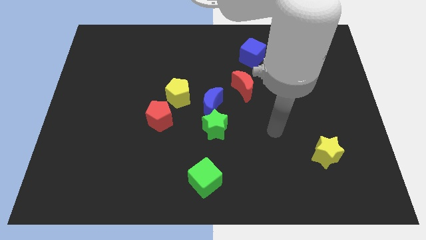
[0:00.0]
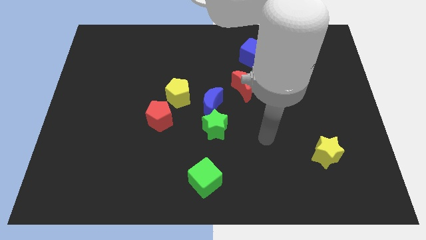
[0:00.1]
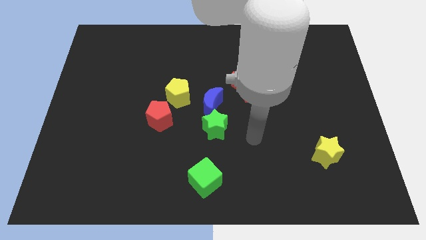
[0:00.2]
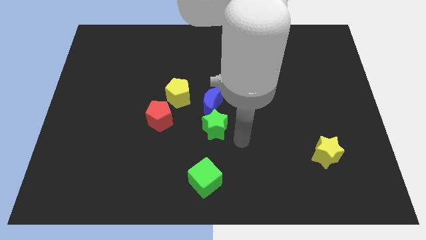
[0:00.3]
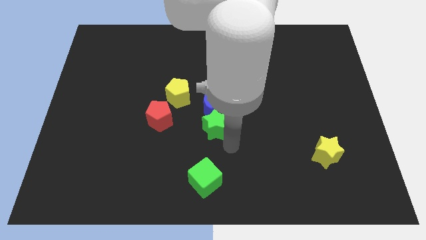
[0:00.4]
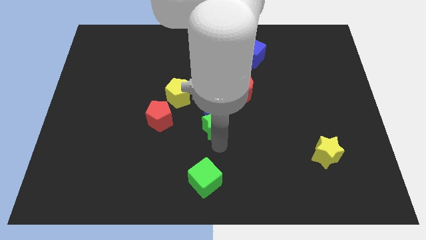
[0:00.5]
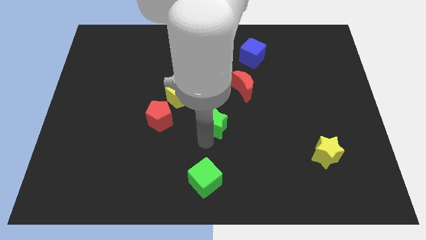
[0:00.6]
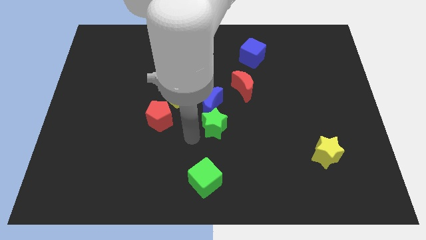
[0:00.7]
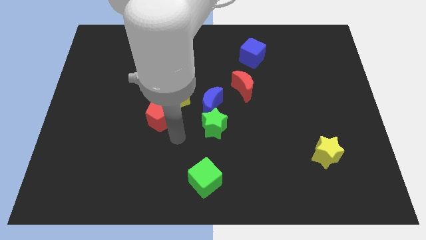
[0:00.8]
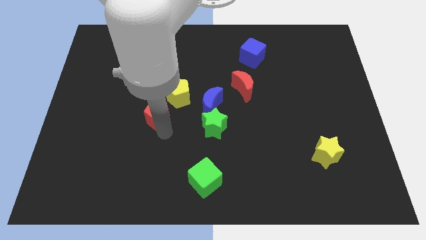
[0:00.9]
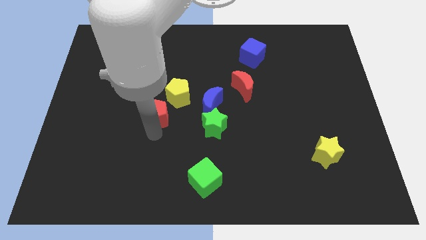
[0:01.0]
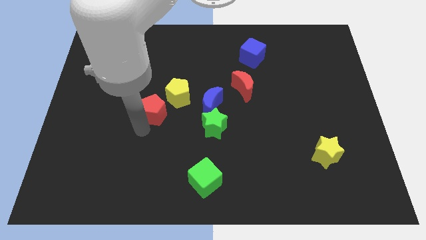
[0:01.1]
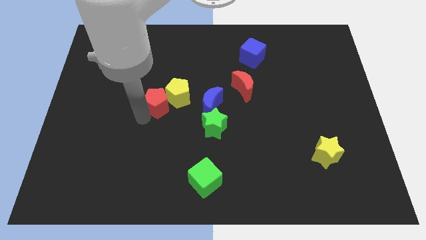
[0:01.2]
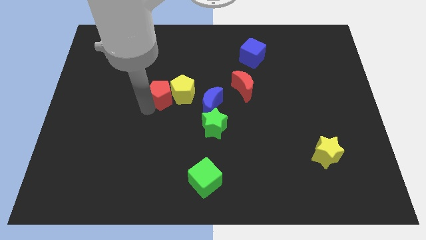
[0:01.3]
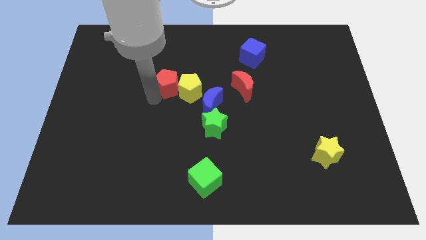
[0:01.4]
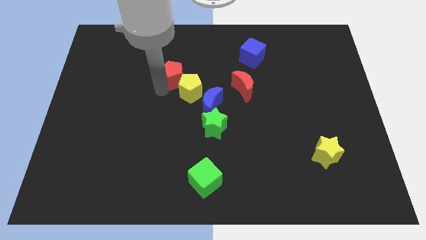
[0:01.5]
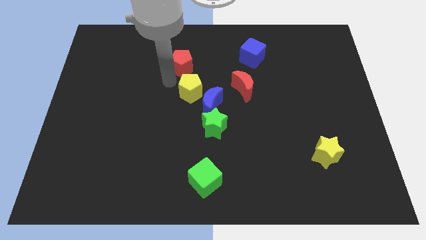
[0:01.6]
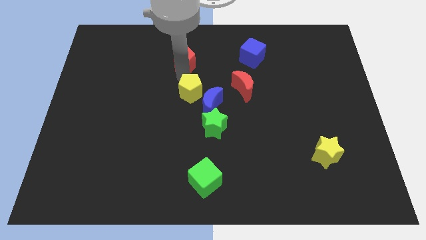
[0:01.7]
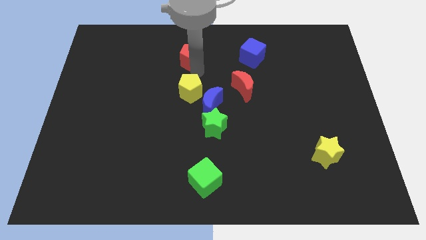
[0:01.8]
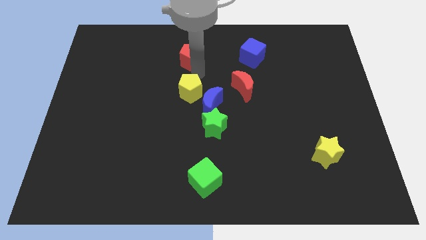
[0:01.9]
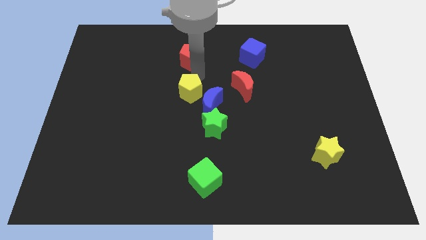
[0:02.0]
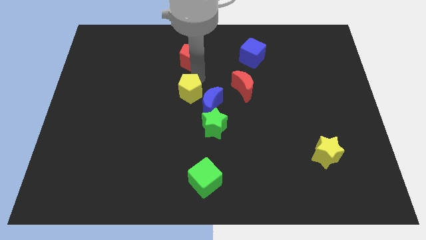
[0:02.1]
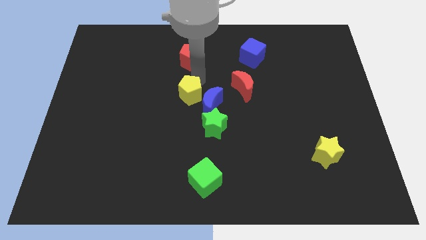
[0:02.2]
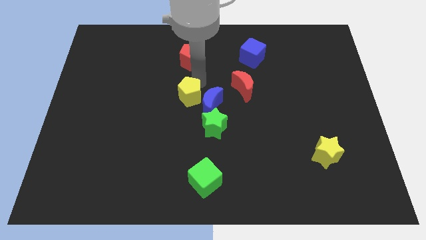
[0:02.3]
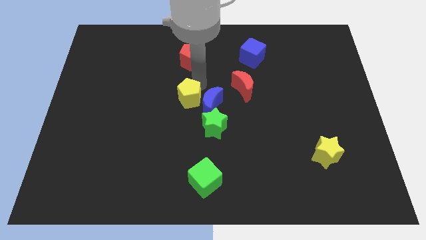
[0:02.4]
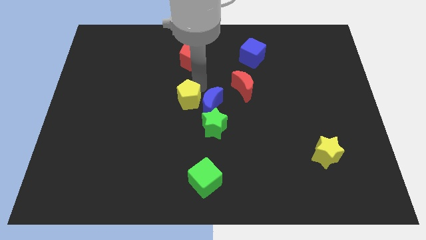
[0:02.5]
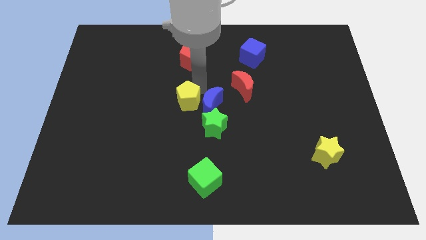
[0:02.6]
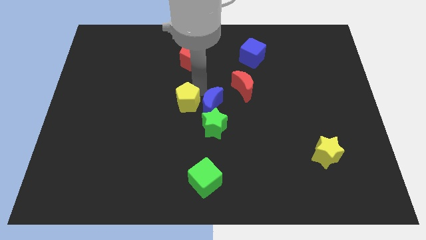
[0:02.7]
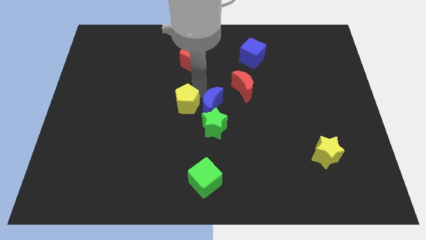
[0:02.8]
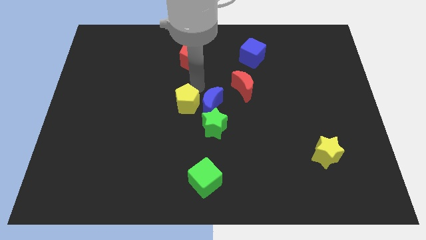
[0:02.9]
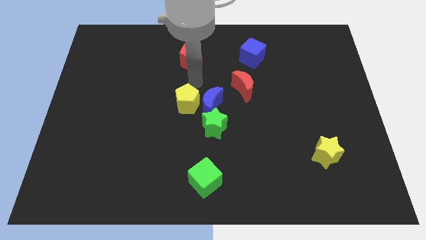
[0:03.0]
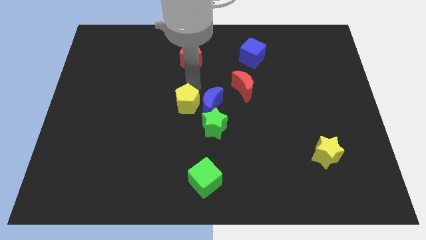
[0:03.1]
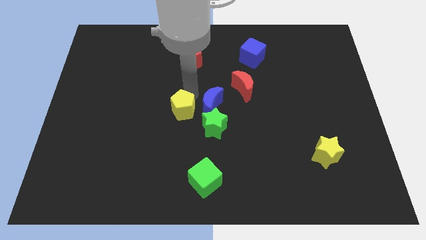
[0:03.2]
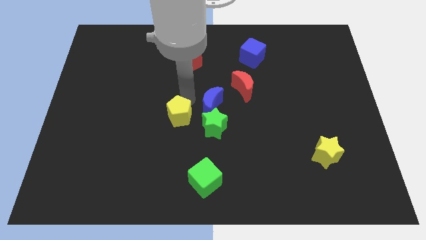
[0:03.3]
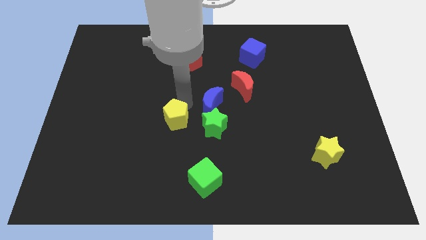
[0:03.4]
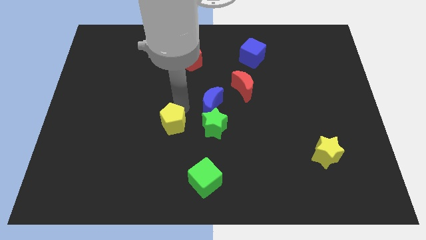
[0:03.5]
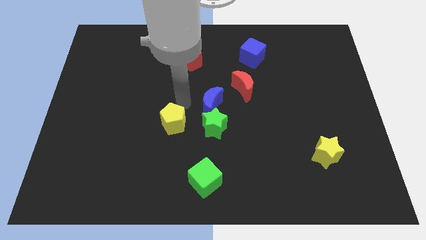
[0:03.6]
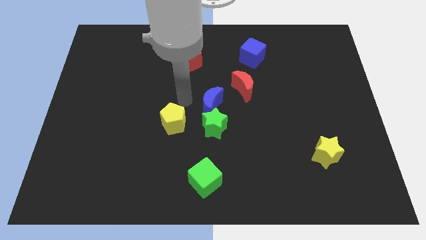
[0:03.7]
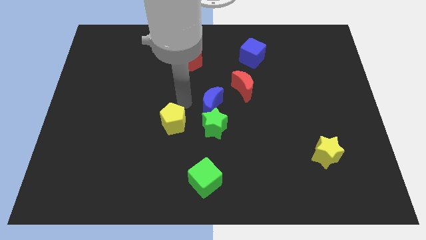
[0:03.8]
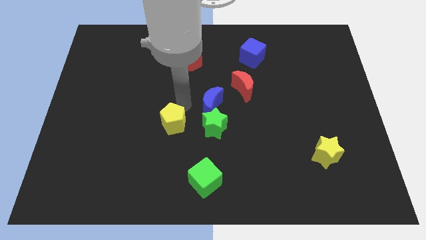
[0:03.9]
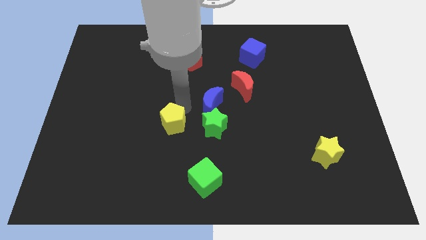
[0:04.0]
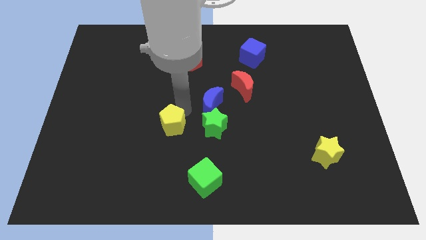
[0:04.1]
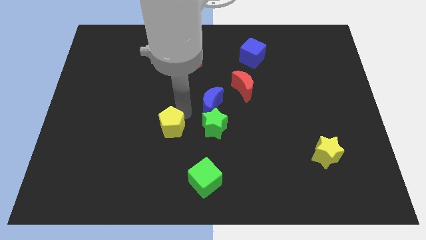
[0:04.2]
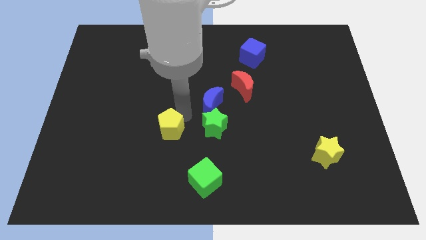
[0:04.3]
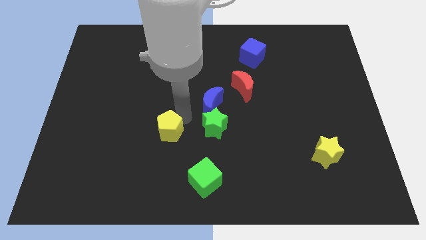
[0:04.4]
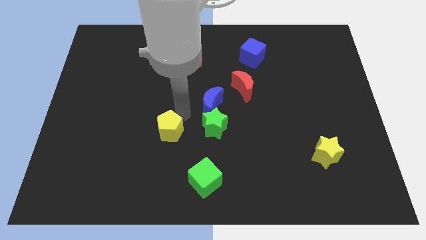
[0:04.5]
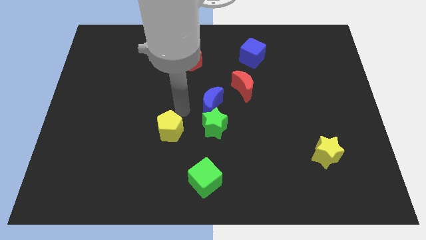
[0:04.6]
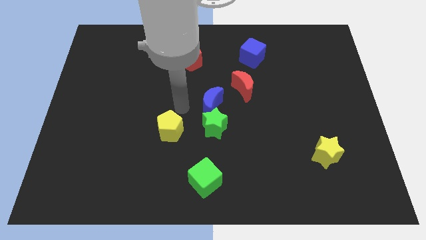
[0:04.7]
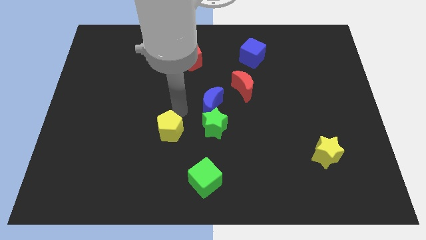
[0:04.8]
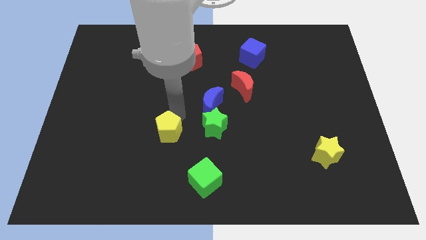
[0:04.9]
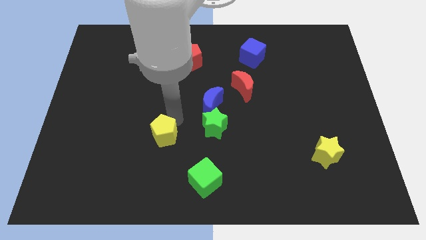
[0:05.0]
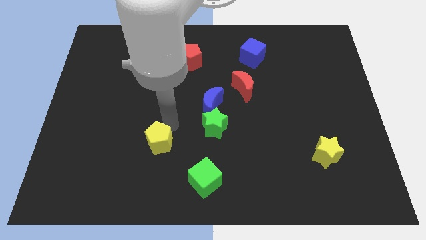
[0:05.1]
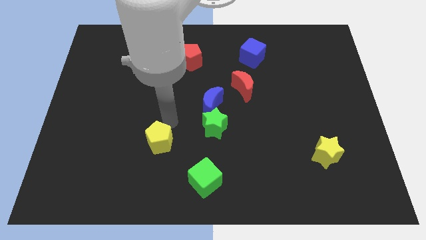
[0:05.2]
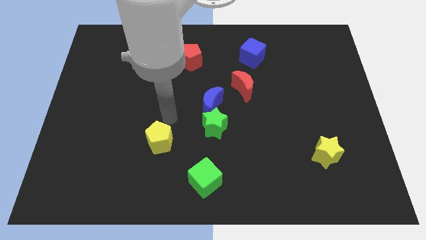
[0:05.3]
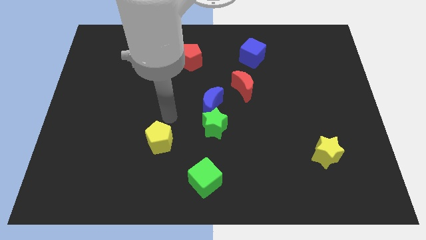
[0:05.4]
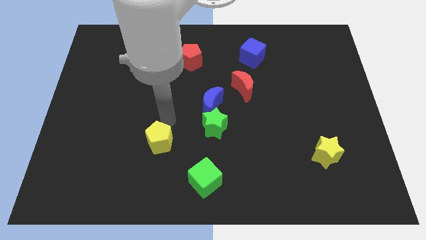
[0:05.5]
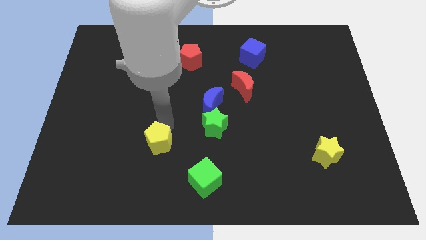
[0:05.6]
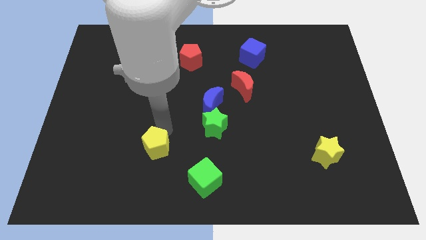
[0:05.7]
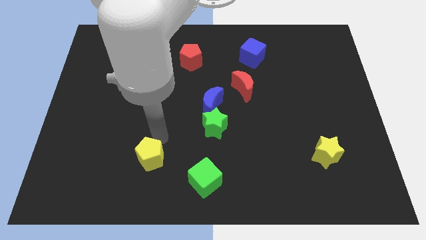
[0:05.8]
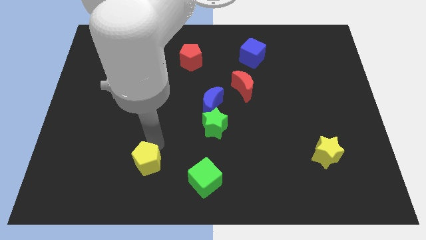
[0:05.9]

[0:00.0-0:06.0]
slide the yellow pentagon left of the green cube

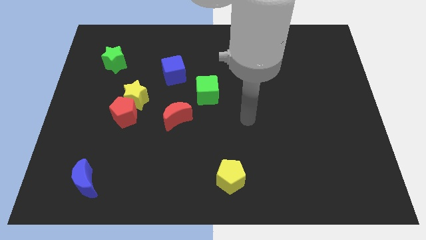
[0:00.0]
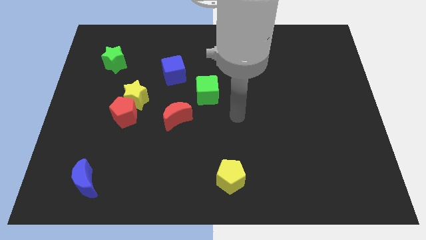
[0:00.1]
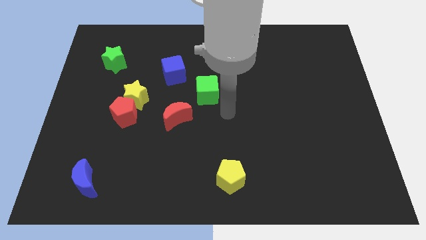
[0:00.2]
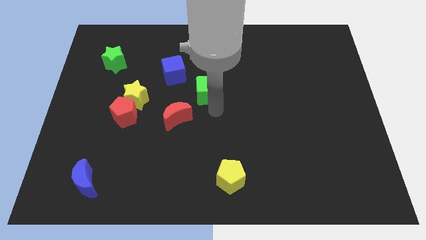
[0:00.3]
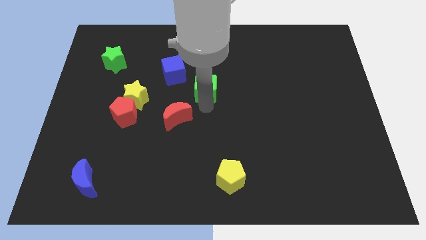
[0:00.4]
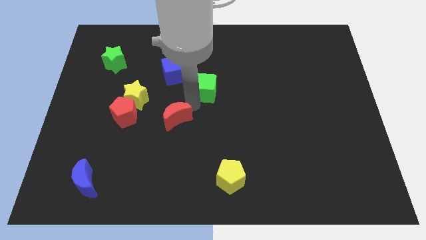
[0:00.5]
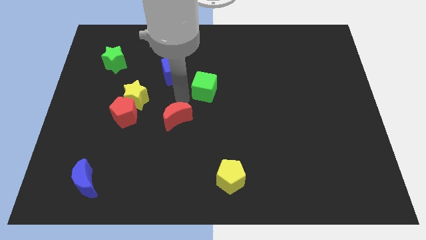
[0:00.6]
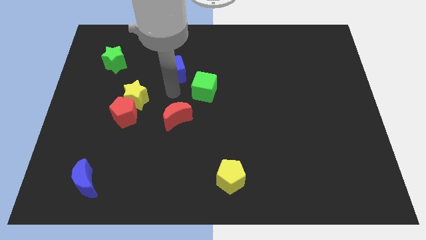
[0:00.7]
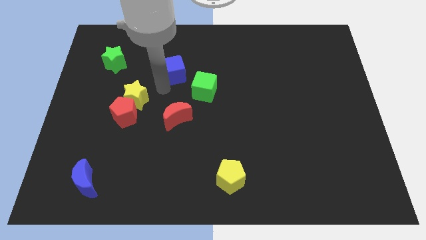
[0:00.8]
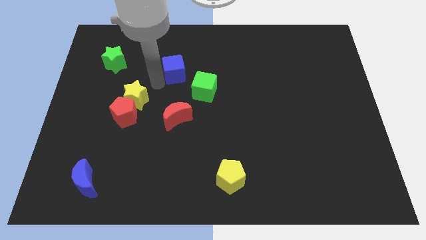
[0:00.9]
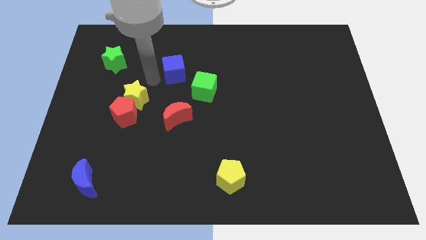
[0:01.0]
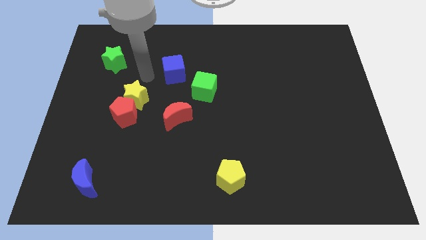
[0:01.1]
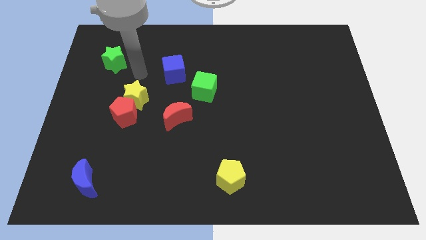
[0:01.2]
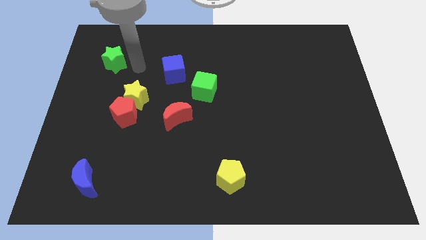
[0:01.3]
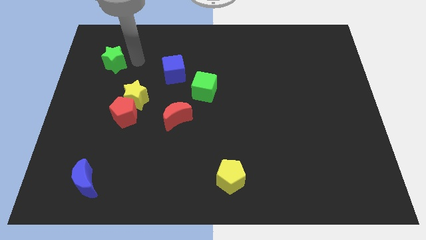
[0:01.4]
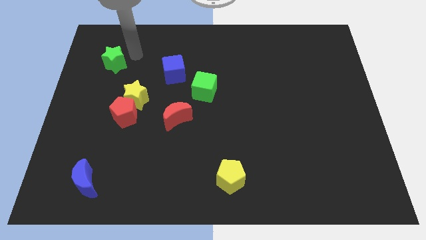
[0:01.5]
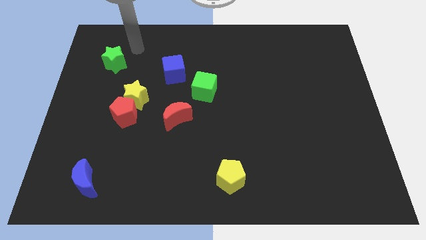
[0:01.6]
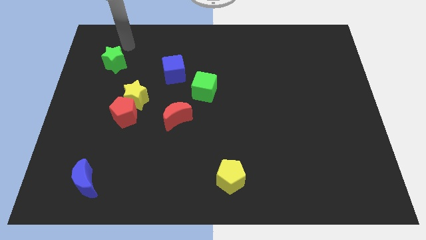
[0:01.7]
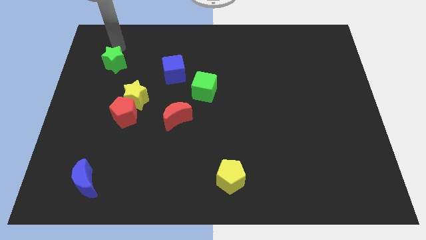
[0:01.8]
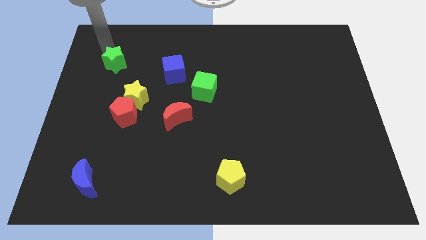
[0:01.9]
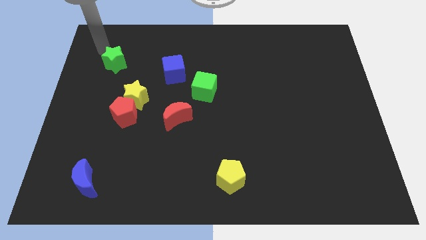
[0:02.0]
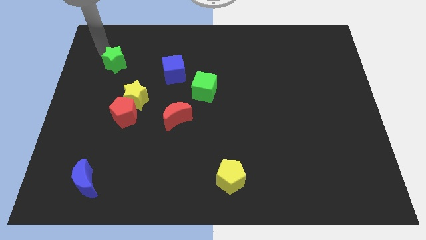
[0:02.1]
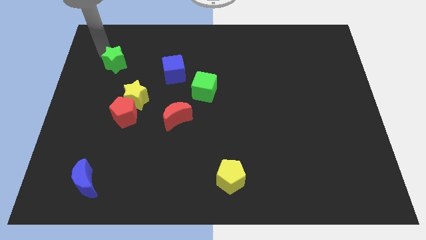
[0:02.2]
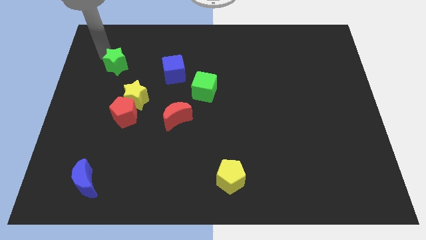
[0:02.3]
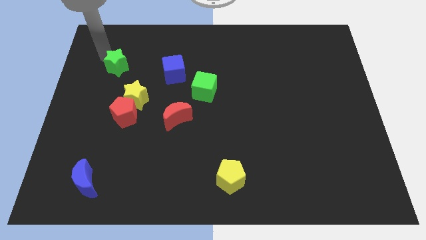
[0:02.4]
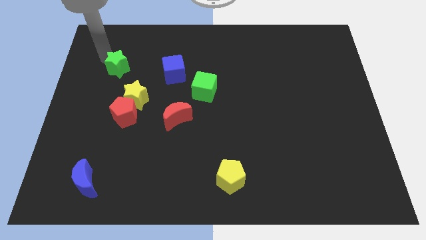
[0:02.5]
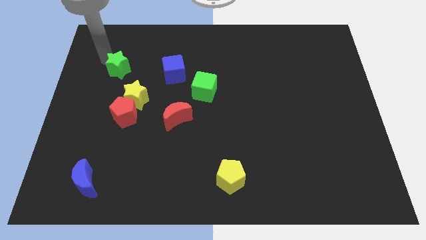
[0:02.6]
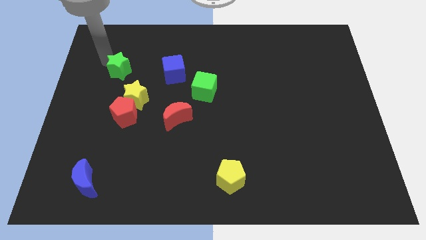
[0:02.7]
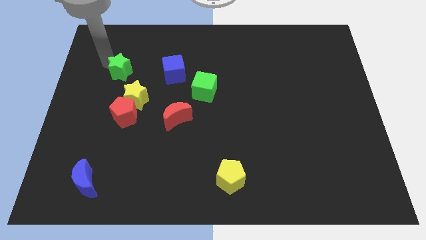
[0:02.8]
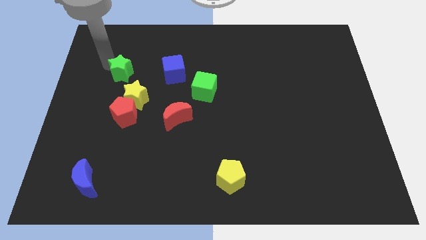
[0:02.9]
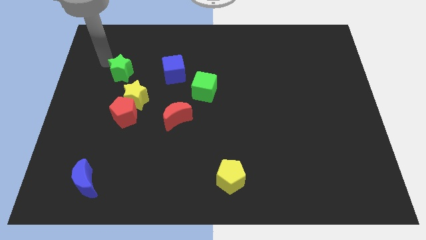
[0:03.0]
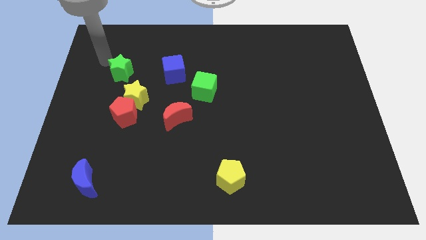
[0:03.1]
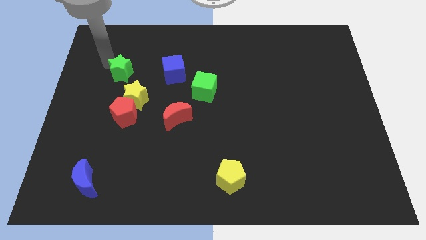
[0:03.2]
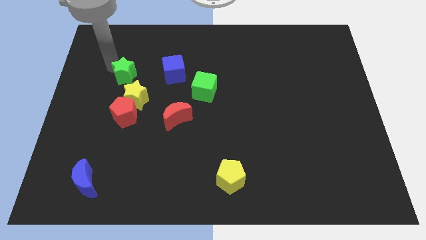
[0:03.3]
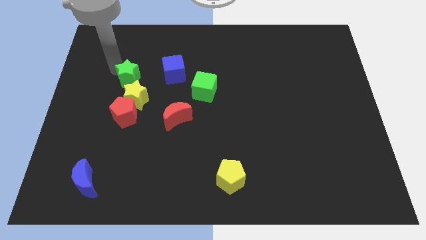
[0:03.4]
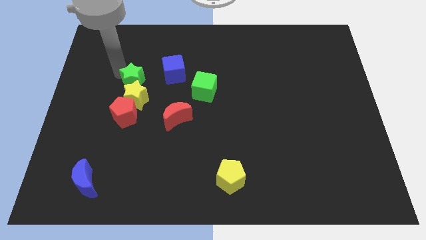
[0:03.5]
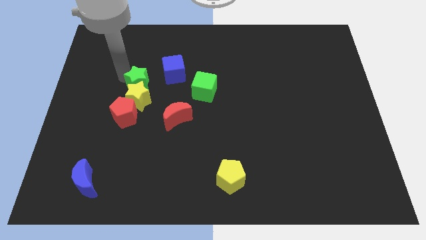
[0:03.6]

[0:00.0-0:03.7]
slide the green star diagonally down and to the left of the blue cube
